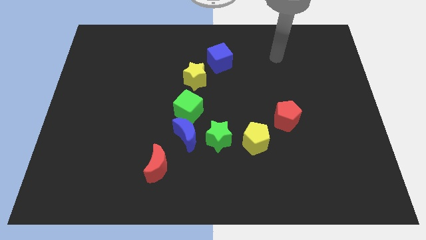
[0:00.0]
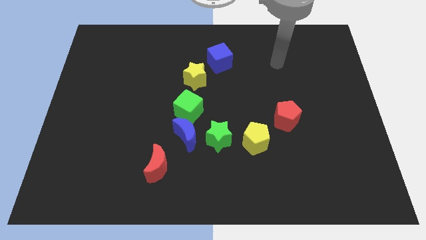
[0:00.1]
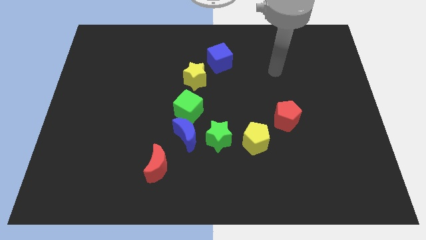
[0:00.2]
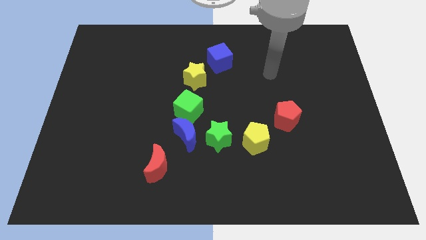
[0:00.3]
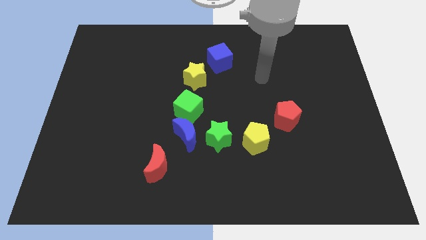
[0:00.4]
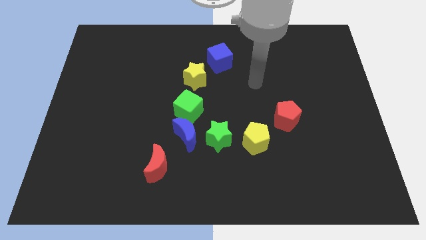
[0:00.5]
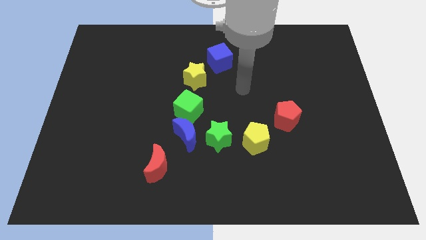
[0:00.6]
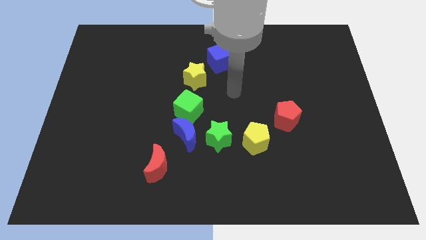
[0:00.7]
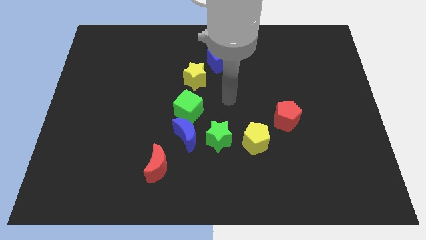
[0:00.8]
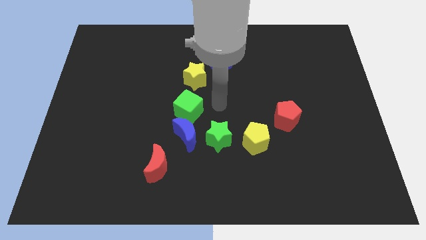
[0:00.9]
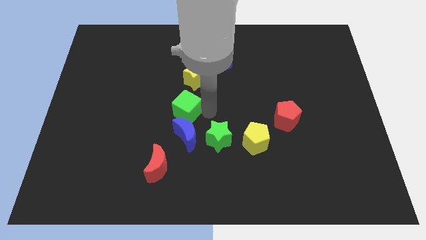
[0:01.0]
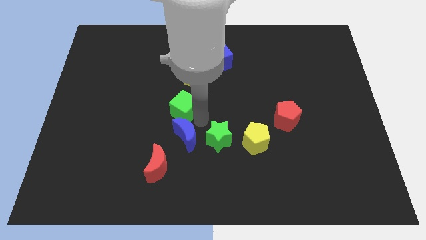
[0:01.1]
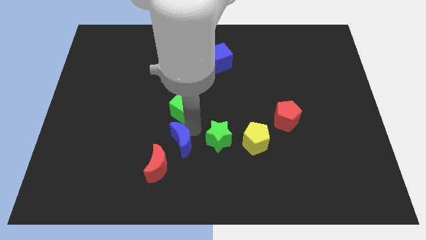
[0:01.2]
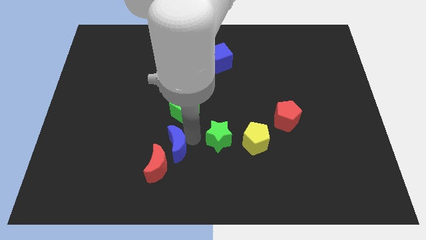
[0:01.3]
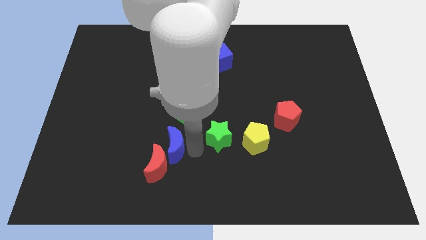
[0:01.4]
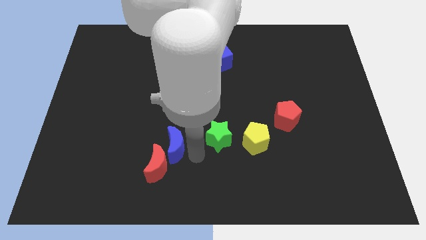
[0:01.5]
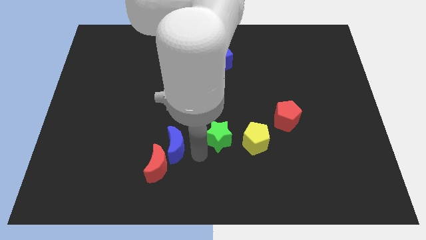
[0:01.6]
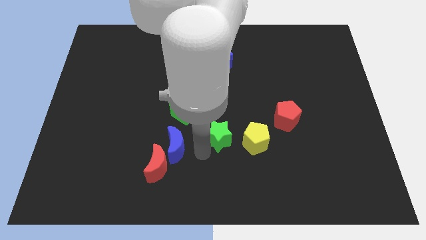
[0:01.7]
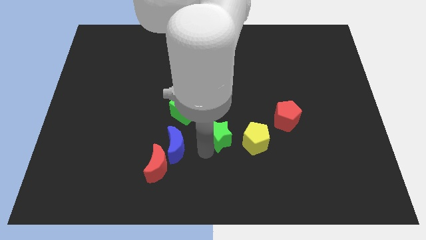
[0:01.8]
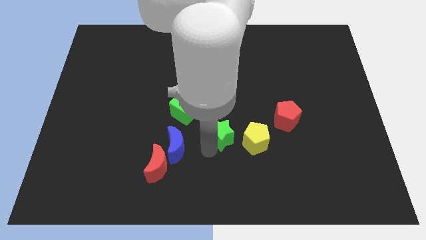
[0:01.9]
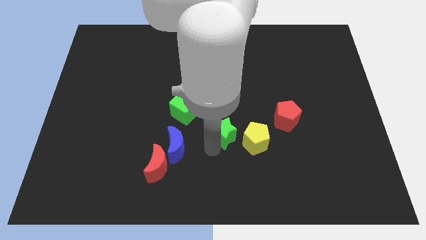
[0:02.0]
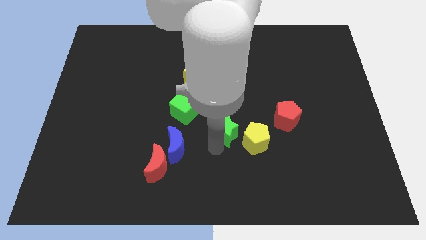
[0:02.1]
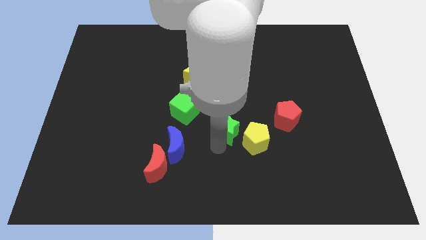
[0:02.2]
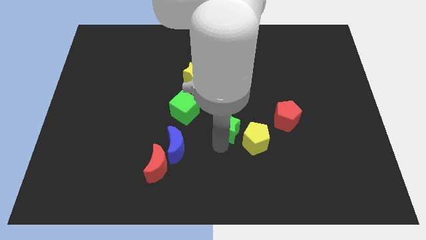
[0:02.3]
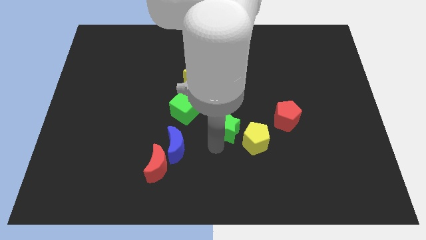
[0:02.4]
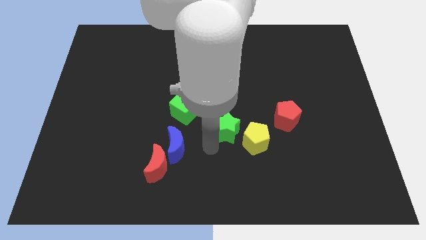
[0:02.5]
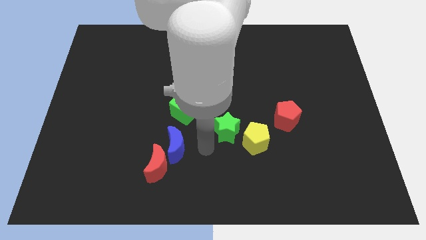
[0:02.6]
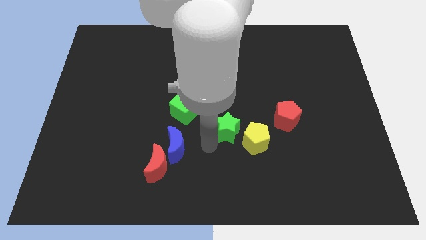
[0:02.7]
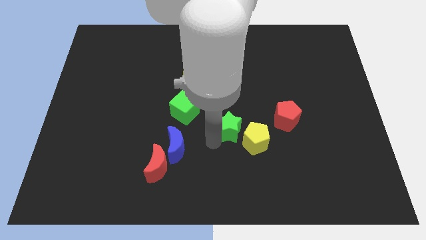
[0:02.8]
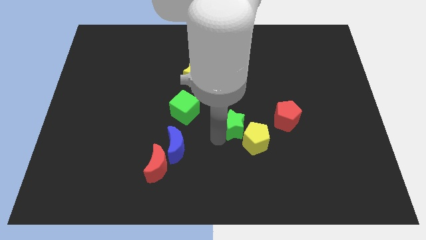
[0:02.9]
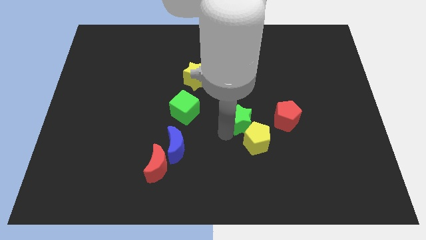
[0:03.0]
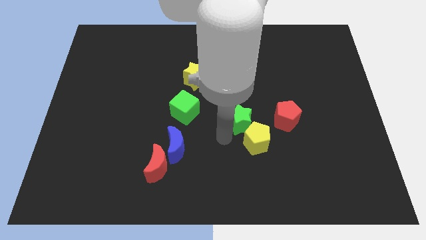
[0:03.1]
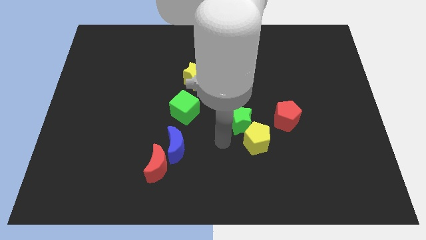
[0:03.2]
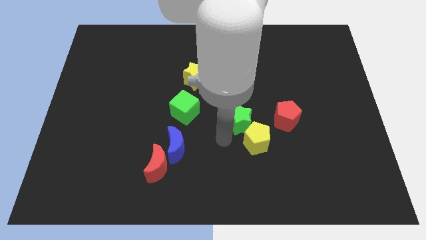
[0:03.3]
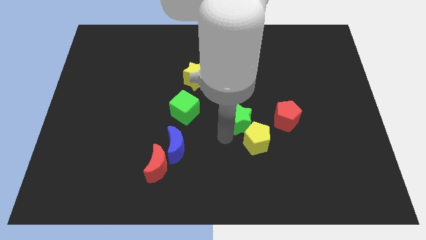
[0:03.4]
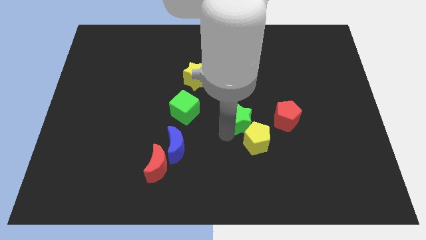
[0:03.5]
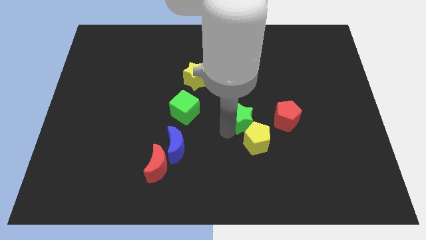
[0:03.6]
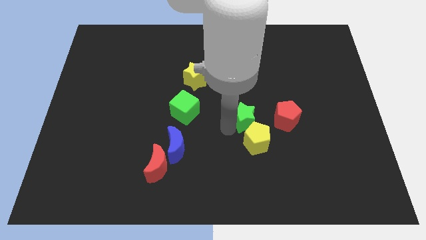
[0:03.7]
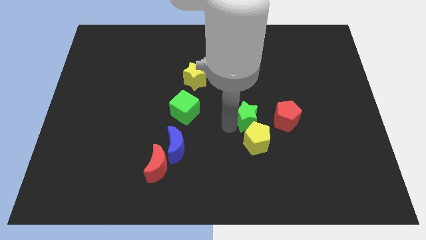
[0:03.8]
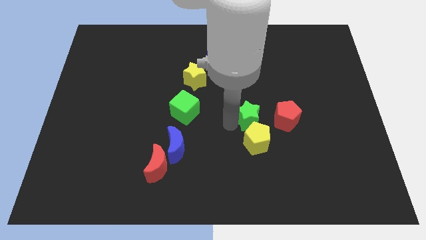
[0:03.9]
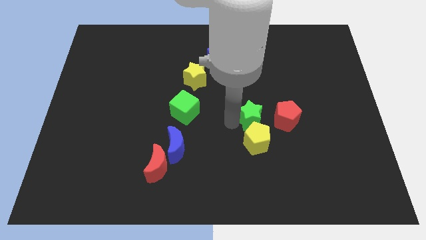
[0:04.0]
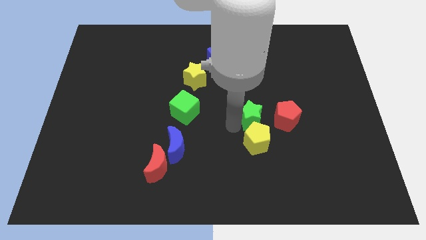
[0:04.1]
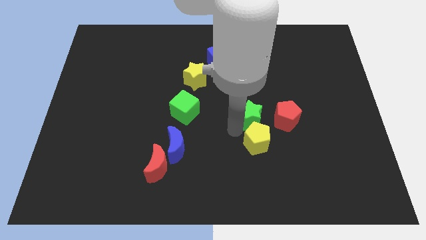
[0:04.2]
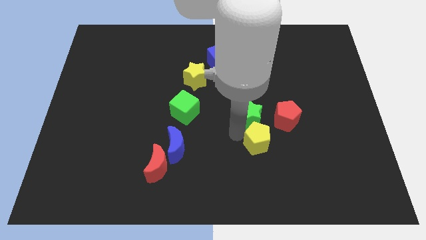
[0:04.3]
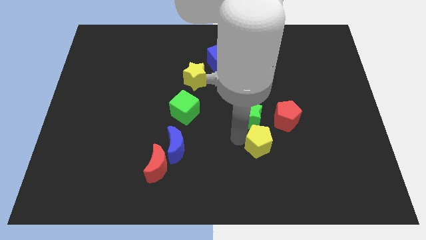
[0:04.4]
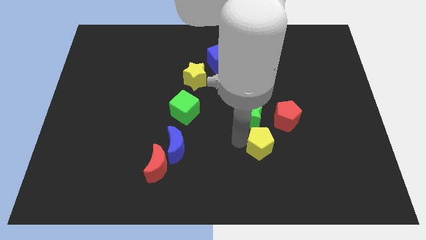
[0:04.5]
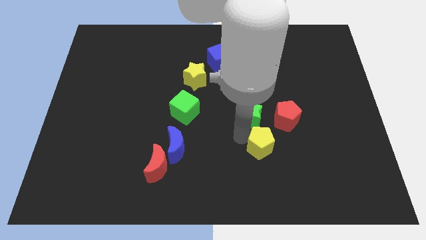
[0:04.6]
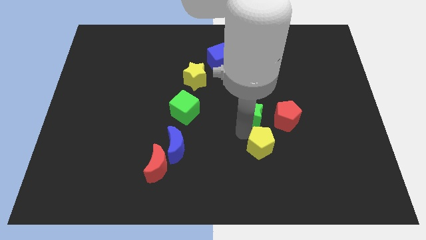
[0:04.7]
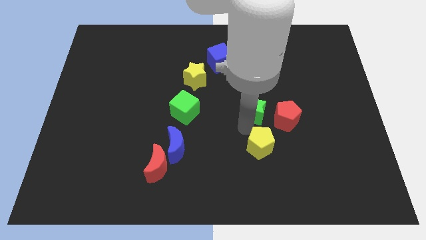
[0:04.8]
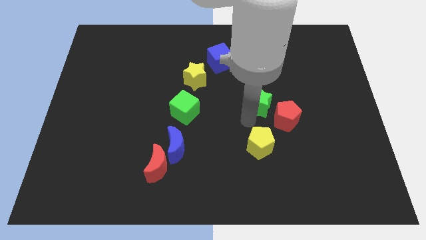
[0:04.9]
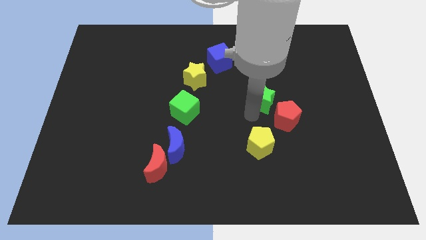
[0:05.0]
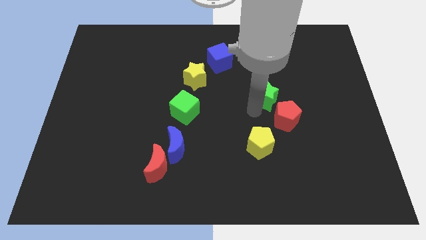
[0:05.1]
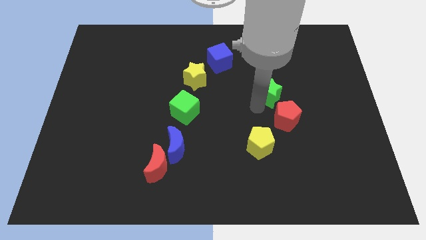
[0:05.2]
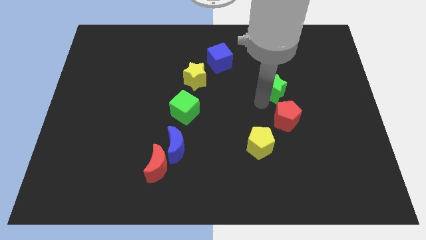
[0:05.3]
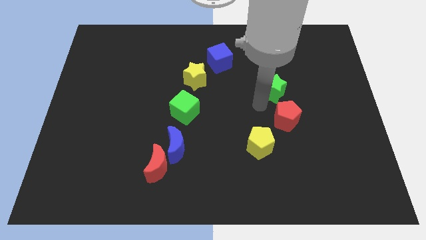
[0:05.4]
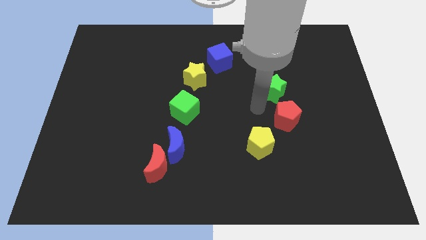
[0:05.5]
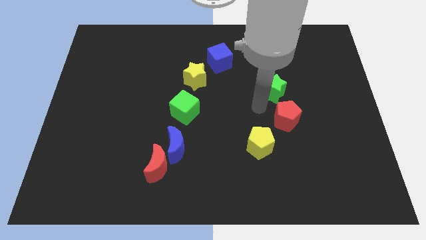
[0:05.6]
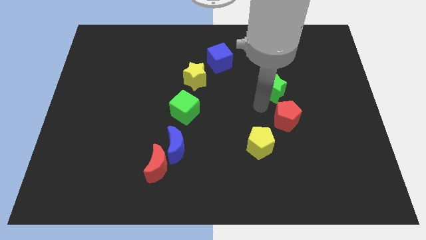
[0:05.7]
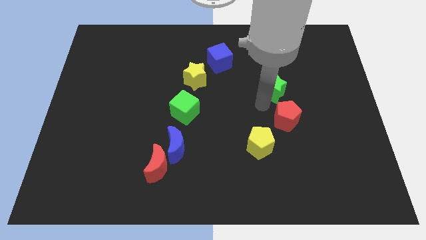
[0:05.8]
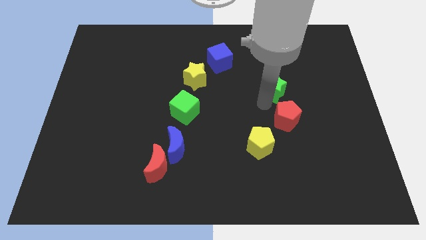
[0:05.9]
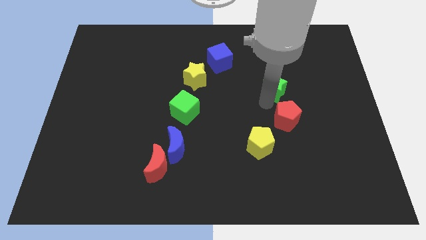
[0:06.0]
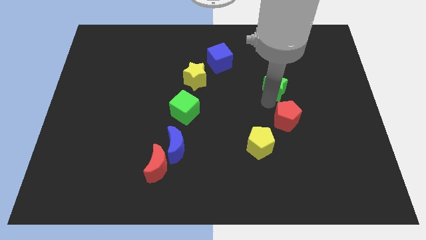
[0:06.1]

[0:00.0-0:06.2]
move the green star upwards and to the right diagonally

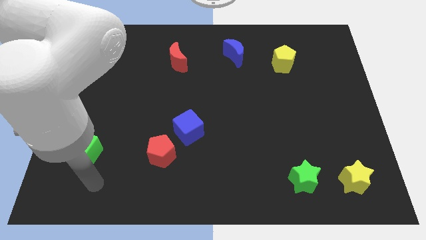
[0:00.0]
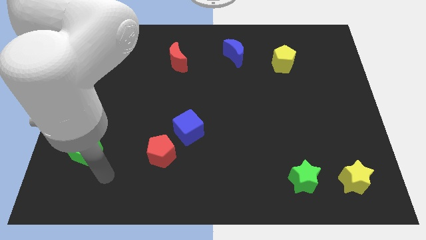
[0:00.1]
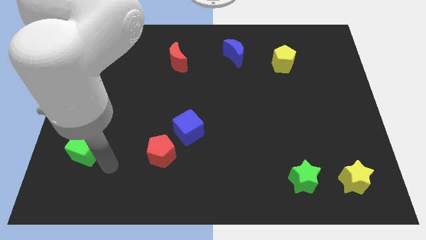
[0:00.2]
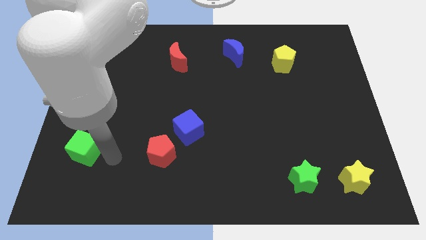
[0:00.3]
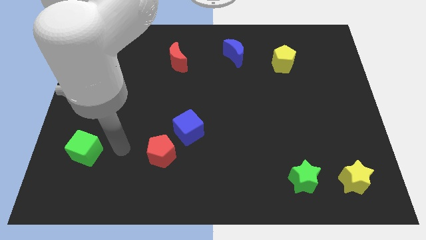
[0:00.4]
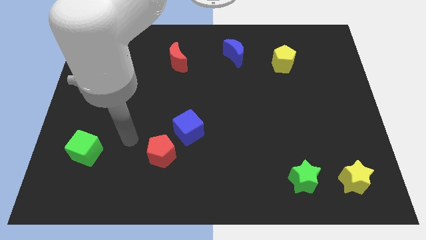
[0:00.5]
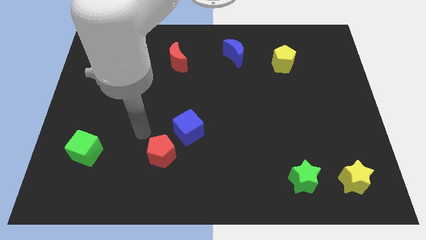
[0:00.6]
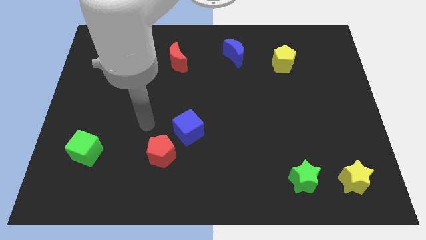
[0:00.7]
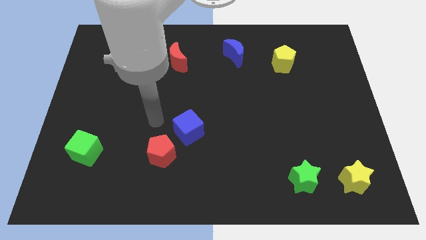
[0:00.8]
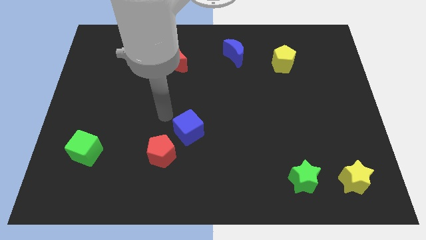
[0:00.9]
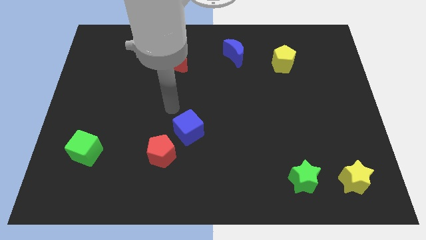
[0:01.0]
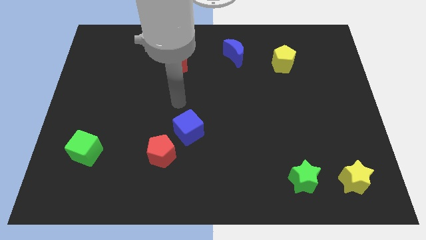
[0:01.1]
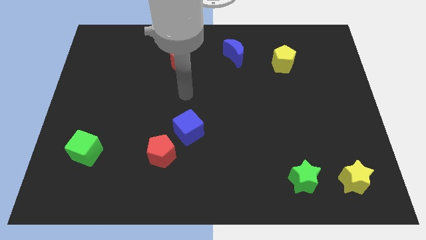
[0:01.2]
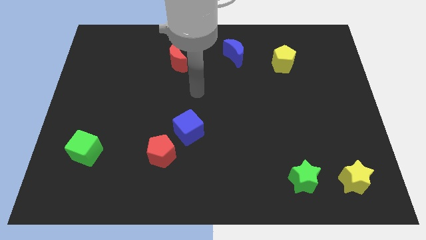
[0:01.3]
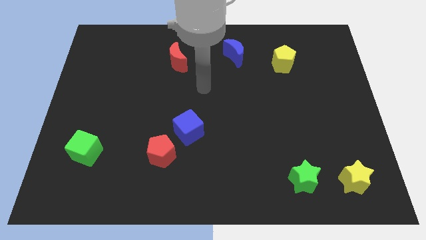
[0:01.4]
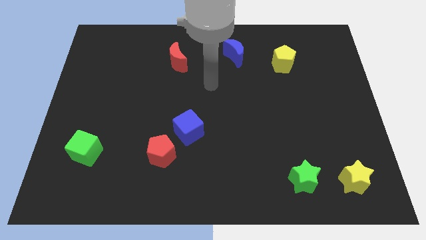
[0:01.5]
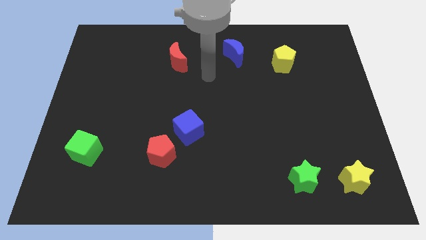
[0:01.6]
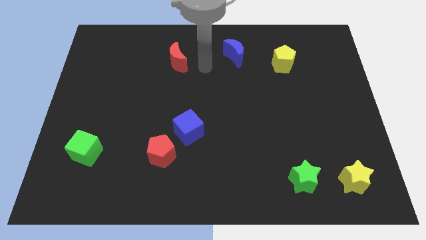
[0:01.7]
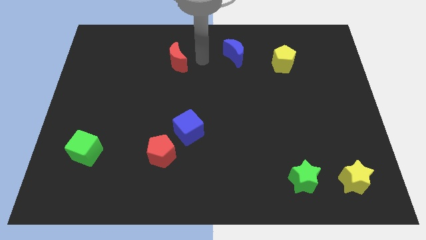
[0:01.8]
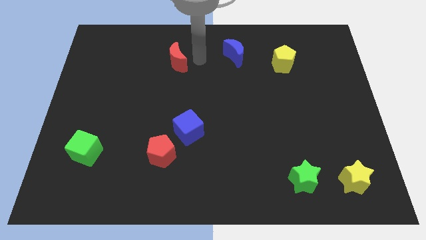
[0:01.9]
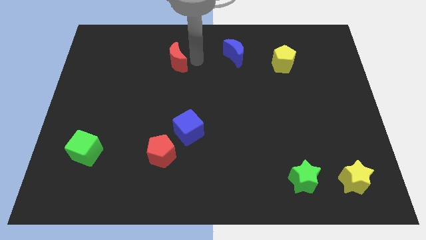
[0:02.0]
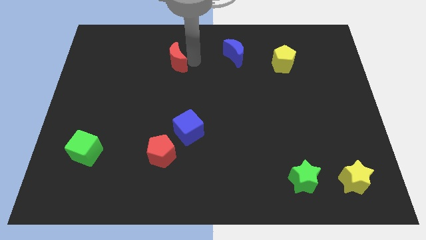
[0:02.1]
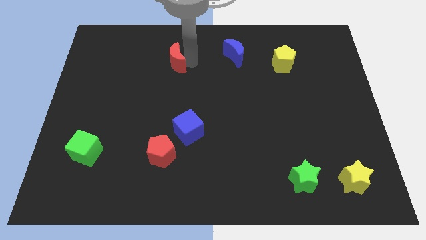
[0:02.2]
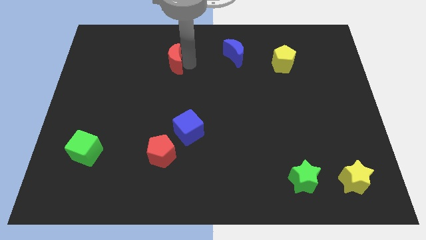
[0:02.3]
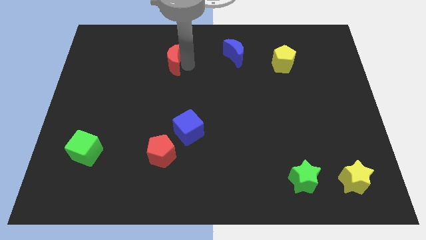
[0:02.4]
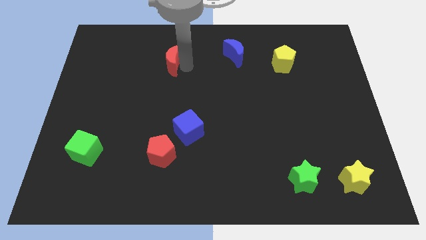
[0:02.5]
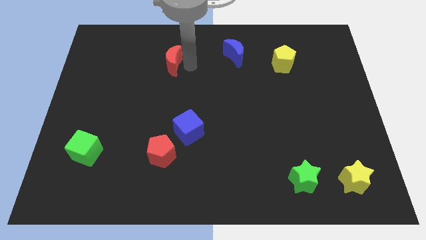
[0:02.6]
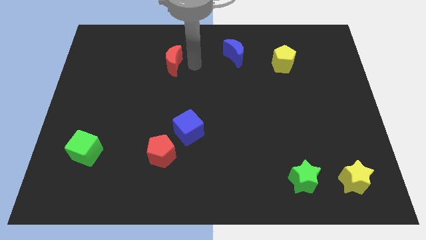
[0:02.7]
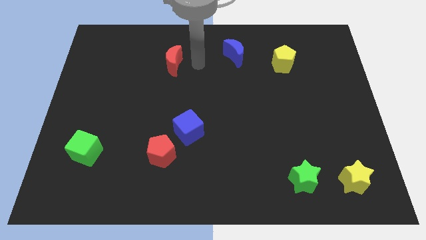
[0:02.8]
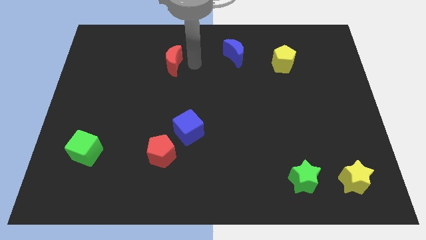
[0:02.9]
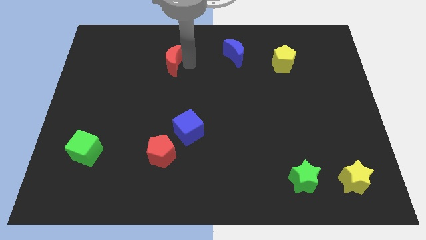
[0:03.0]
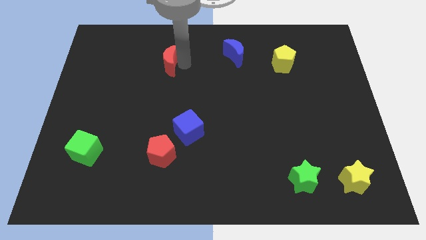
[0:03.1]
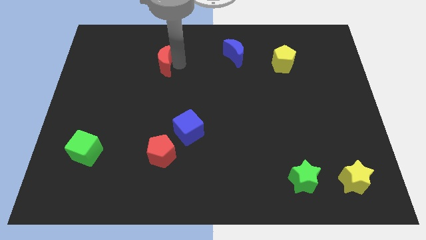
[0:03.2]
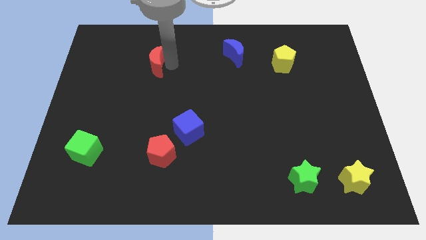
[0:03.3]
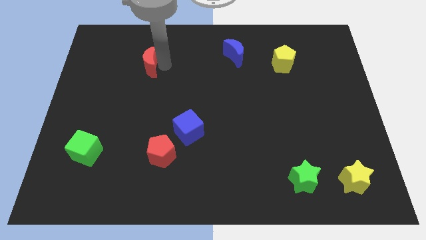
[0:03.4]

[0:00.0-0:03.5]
slightly push the red moon to the left
